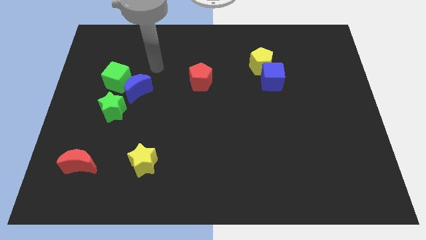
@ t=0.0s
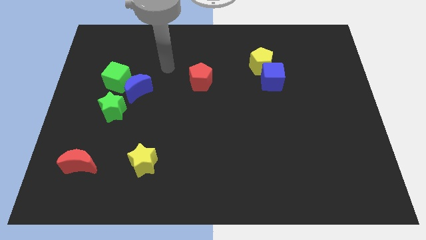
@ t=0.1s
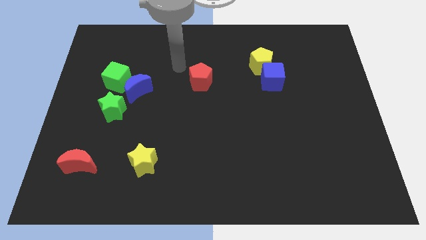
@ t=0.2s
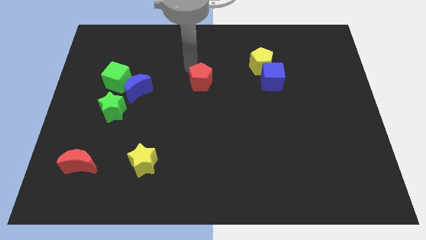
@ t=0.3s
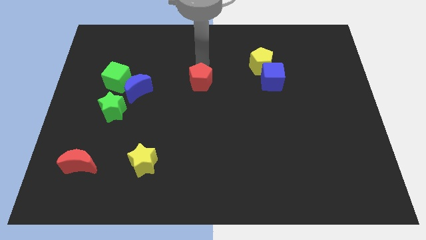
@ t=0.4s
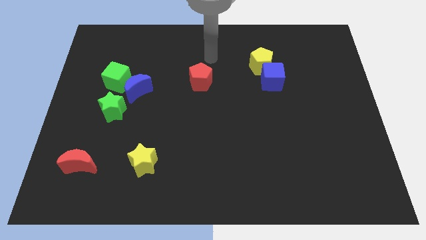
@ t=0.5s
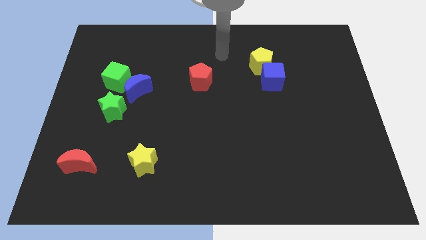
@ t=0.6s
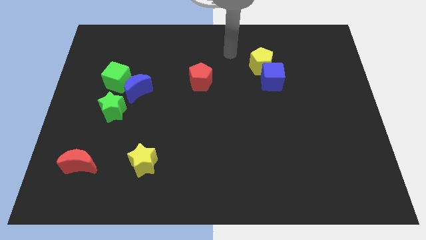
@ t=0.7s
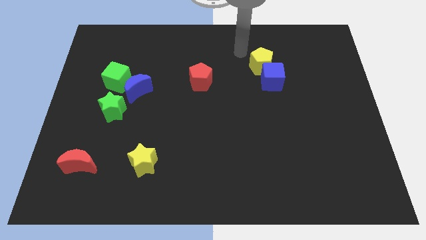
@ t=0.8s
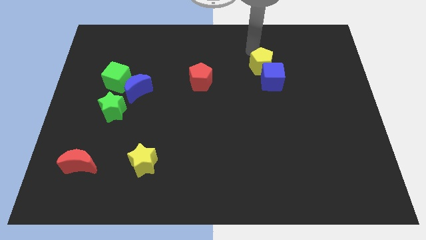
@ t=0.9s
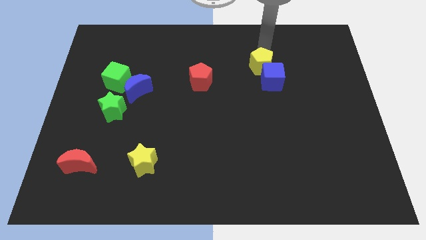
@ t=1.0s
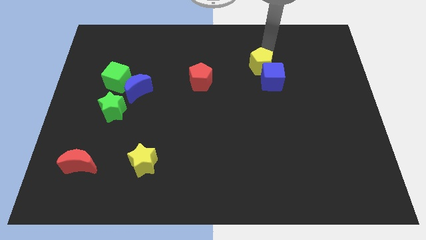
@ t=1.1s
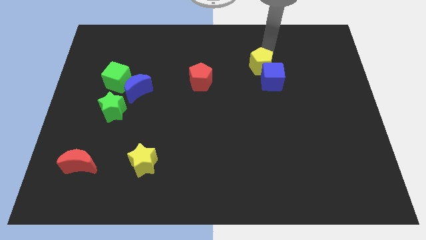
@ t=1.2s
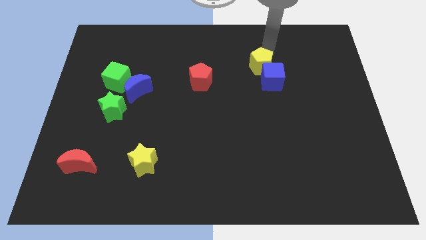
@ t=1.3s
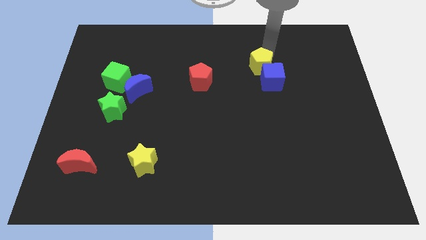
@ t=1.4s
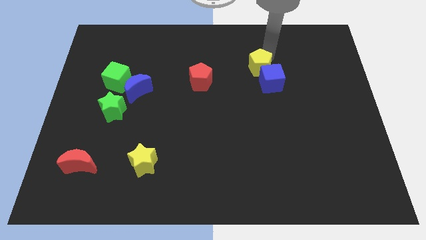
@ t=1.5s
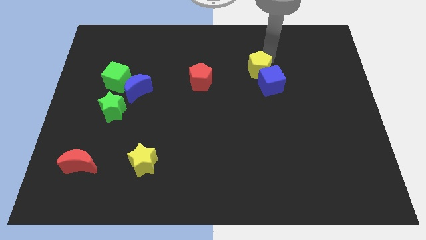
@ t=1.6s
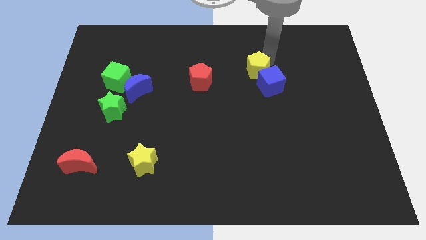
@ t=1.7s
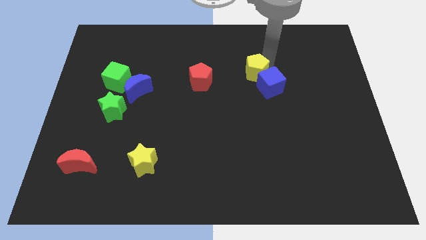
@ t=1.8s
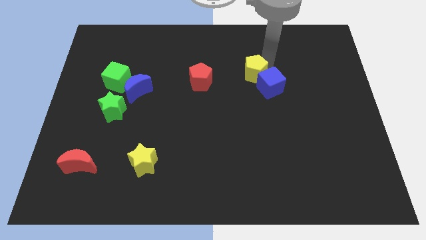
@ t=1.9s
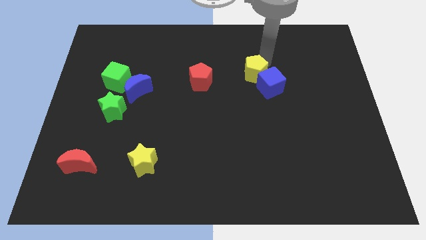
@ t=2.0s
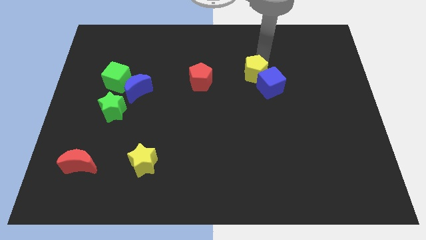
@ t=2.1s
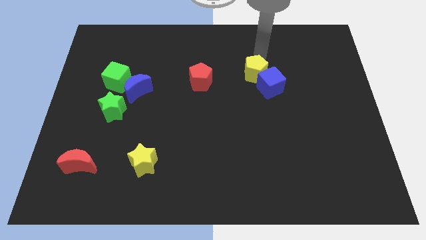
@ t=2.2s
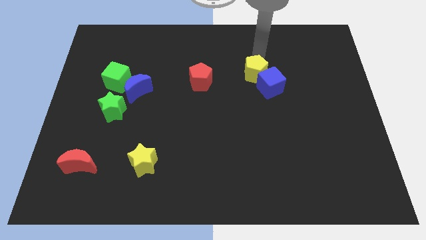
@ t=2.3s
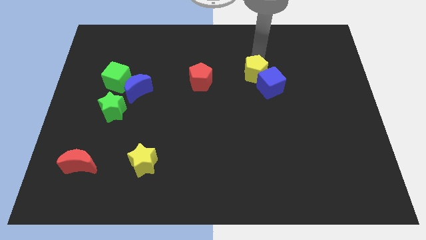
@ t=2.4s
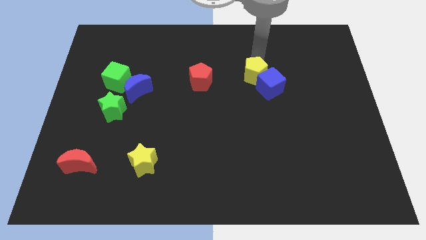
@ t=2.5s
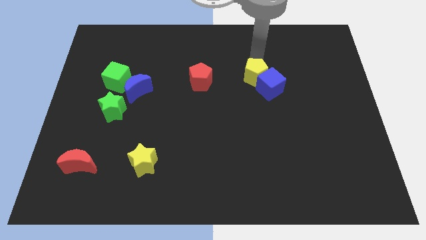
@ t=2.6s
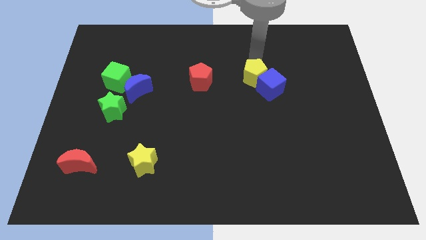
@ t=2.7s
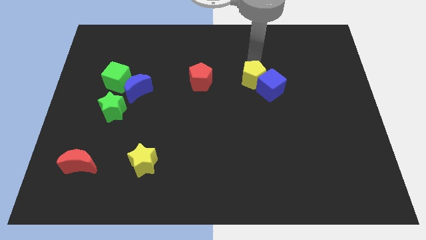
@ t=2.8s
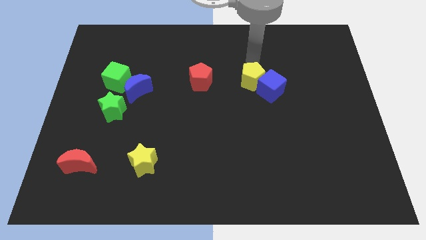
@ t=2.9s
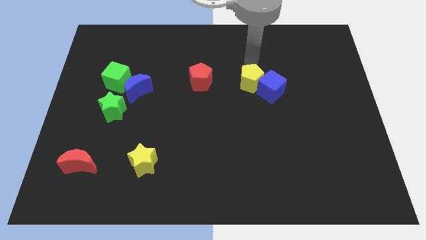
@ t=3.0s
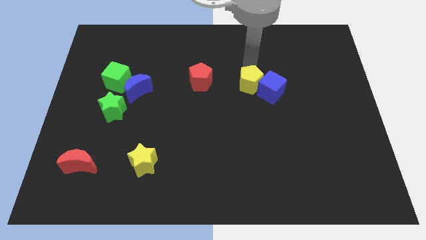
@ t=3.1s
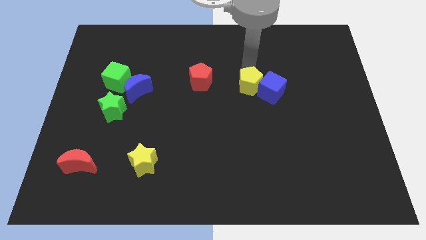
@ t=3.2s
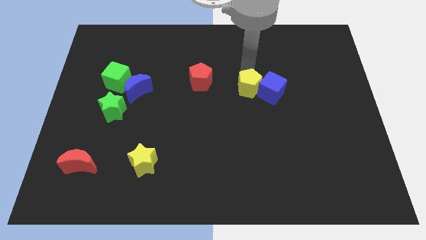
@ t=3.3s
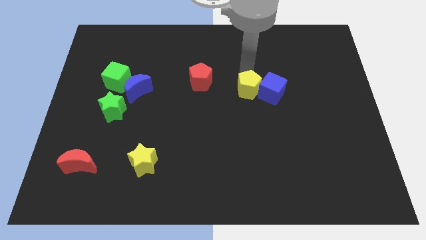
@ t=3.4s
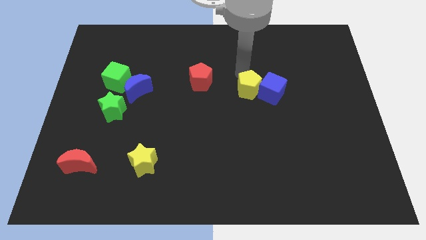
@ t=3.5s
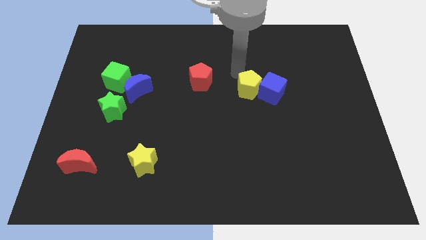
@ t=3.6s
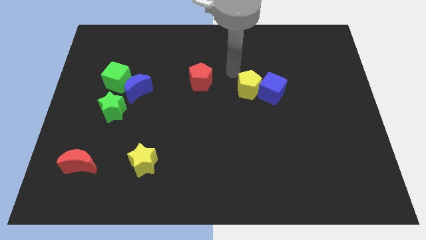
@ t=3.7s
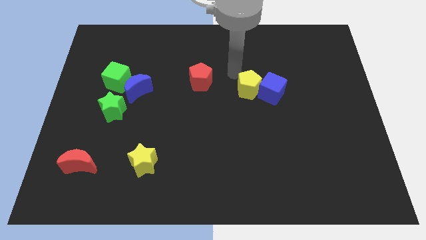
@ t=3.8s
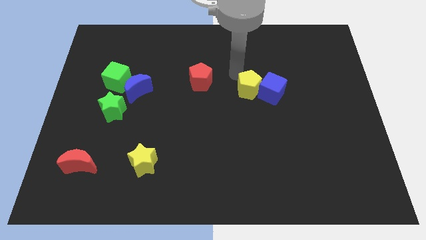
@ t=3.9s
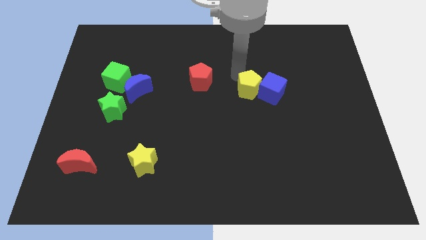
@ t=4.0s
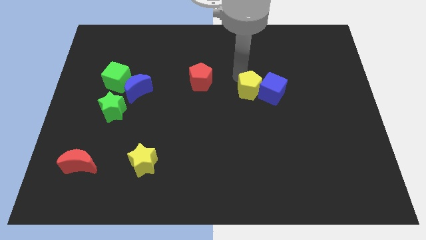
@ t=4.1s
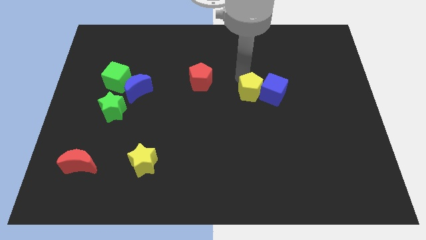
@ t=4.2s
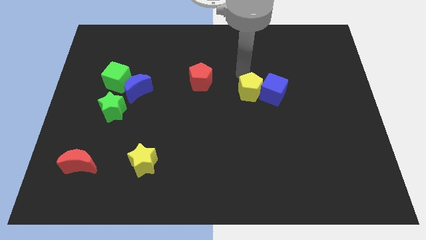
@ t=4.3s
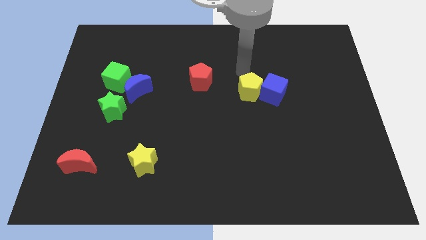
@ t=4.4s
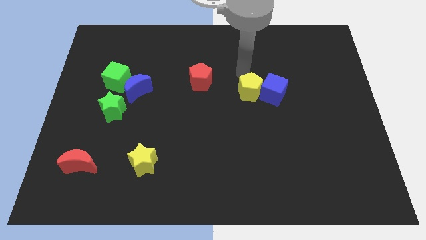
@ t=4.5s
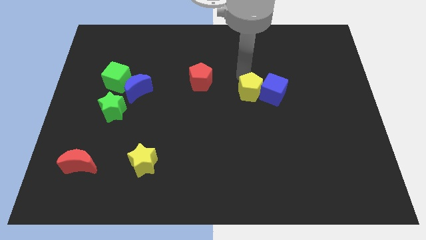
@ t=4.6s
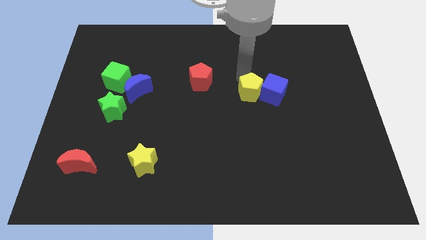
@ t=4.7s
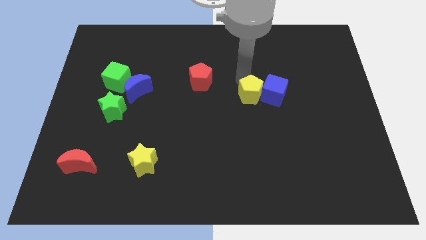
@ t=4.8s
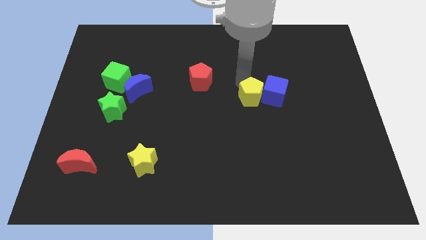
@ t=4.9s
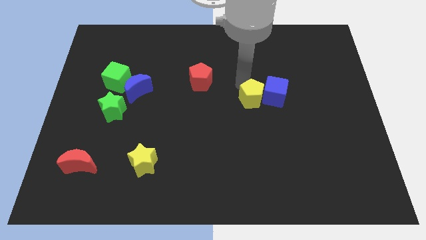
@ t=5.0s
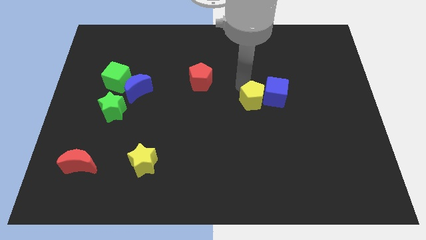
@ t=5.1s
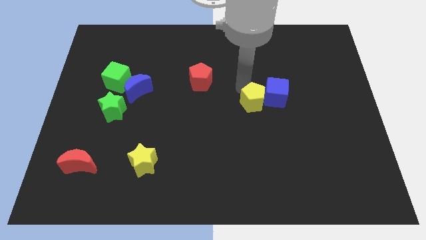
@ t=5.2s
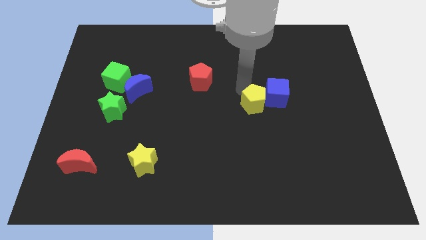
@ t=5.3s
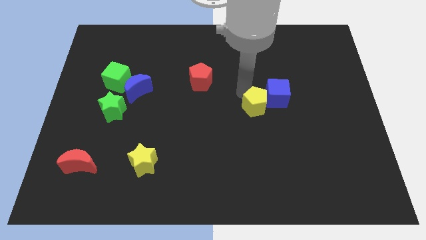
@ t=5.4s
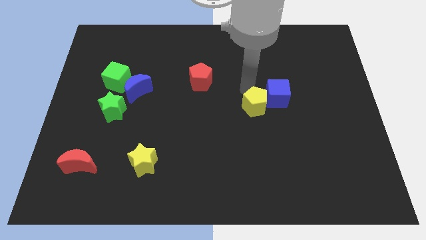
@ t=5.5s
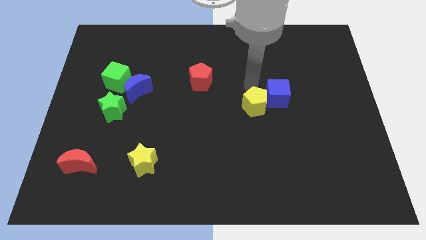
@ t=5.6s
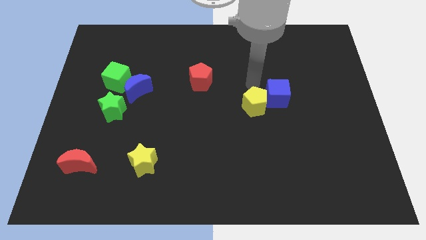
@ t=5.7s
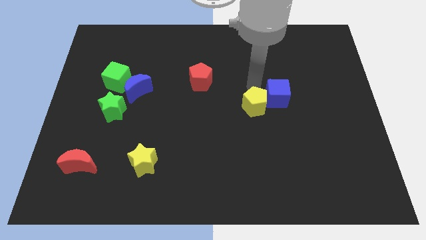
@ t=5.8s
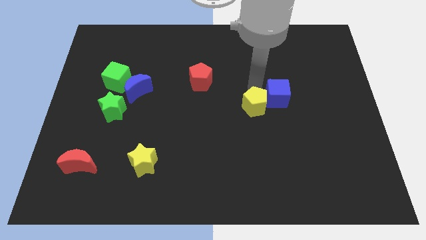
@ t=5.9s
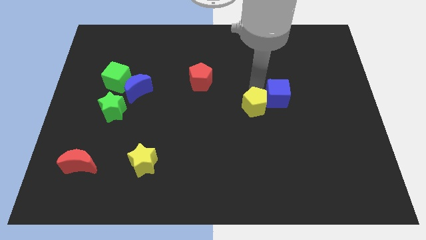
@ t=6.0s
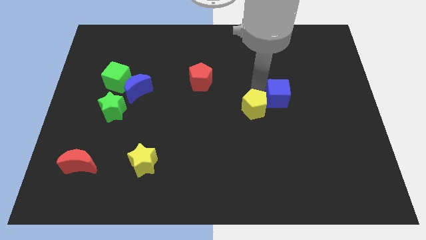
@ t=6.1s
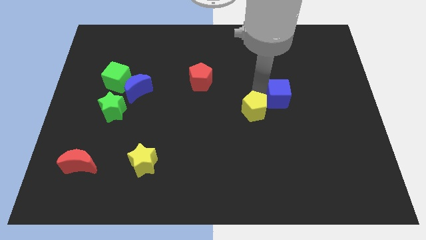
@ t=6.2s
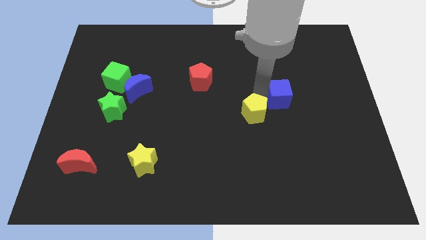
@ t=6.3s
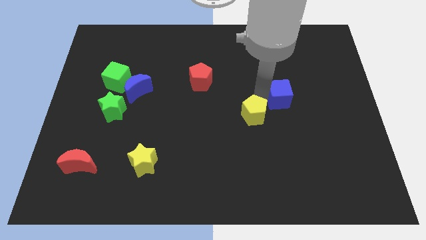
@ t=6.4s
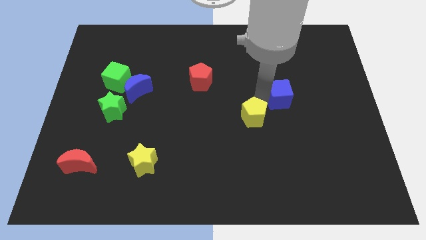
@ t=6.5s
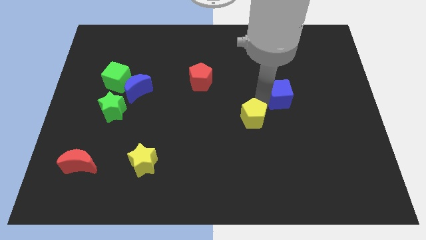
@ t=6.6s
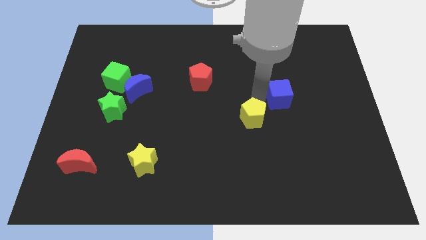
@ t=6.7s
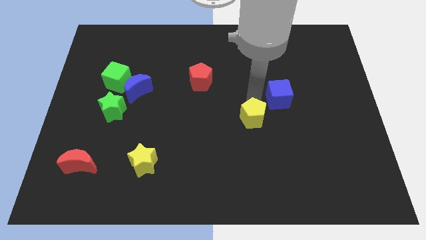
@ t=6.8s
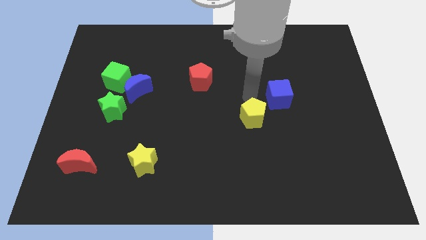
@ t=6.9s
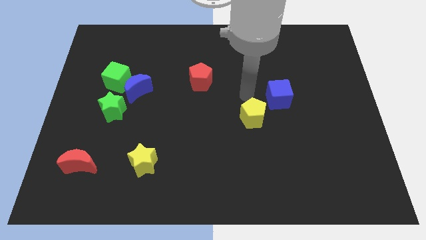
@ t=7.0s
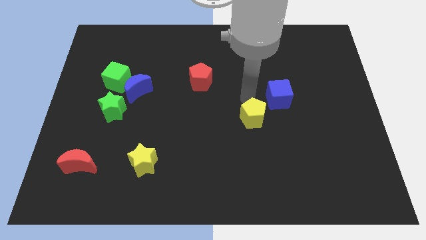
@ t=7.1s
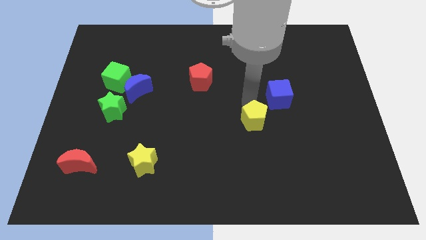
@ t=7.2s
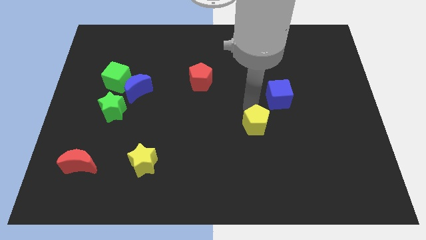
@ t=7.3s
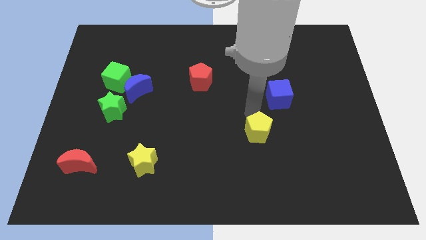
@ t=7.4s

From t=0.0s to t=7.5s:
push the yellow pentagon down

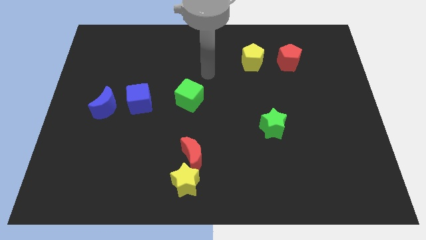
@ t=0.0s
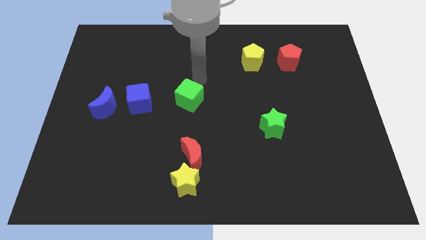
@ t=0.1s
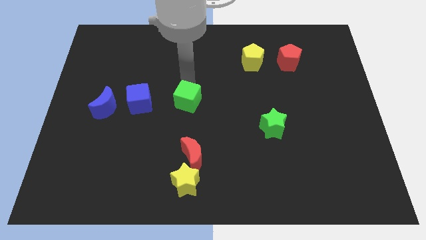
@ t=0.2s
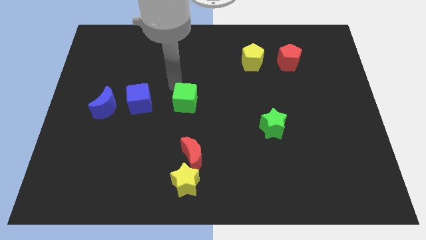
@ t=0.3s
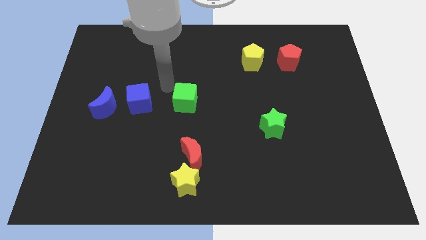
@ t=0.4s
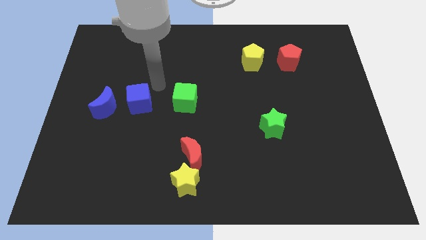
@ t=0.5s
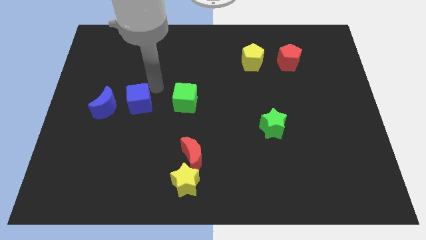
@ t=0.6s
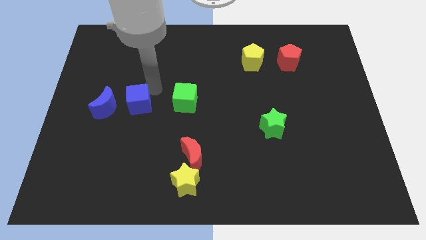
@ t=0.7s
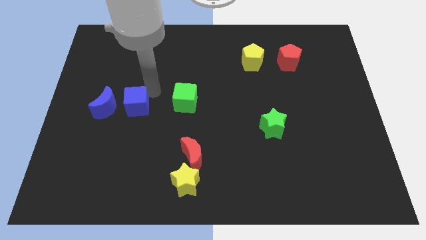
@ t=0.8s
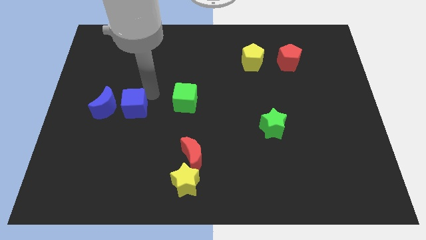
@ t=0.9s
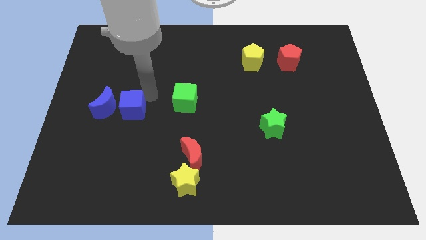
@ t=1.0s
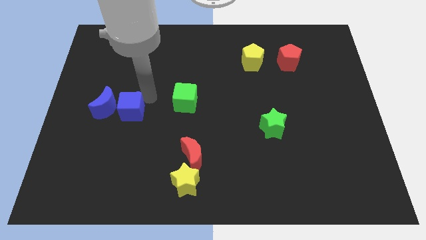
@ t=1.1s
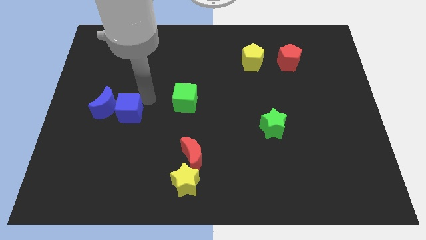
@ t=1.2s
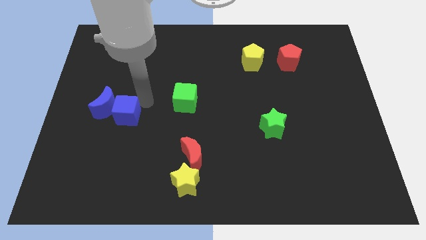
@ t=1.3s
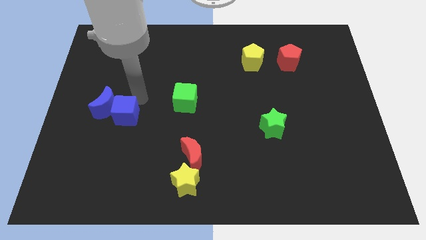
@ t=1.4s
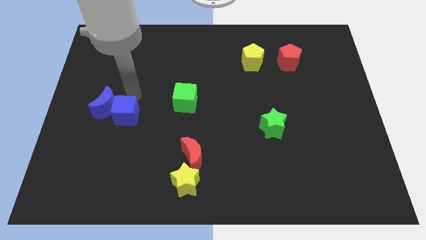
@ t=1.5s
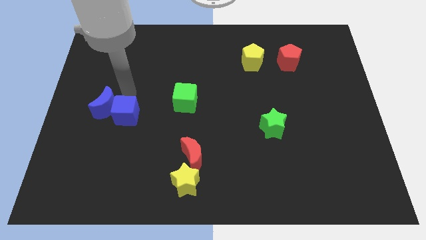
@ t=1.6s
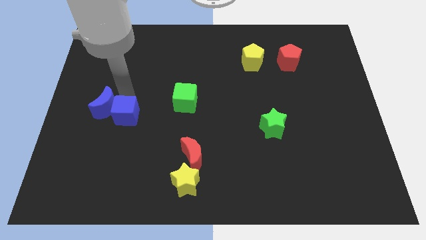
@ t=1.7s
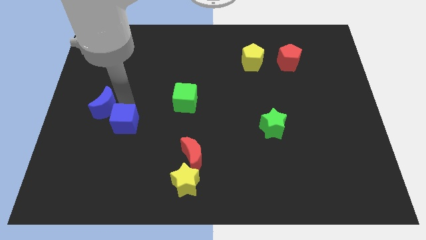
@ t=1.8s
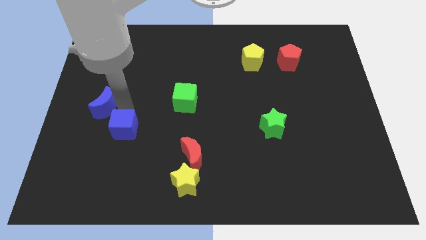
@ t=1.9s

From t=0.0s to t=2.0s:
slightly push the blue cube downwards
